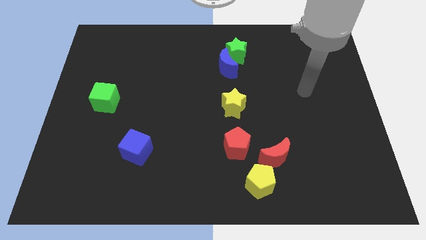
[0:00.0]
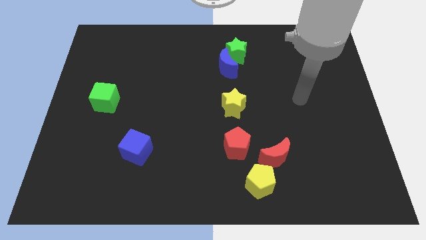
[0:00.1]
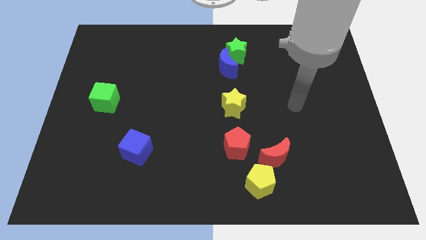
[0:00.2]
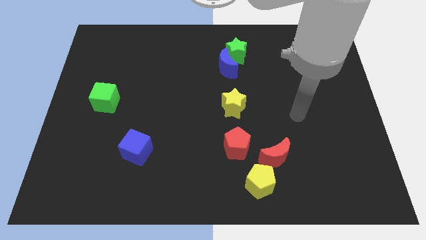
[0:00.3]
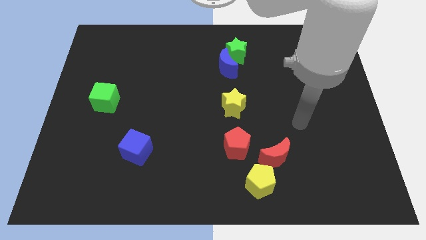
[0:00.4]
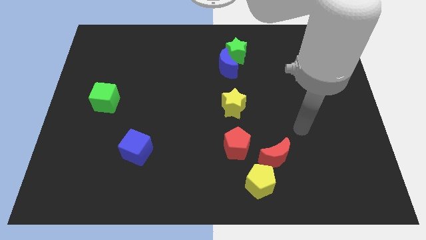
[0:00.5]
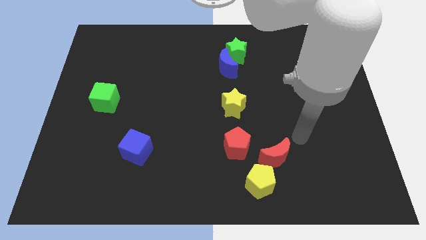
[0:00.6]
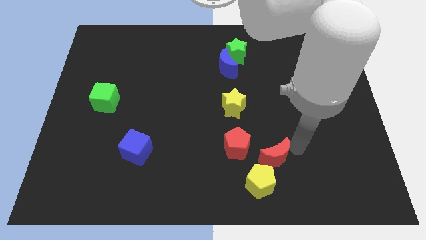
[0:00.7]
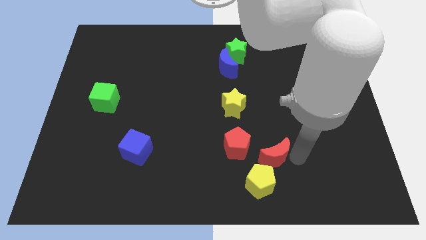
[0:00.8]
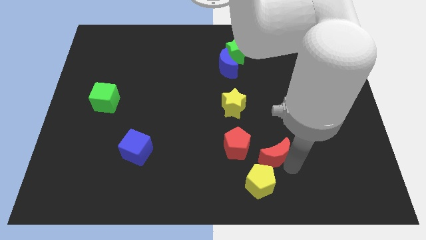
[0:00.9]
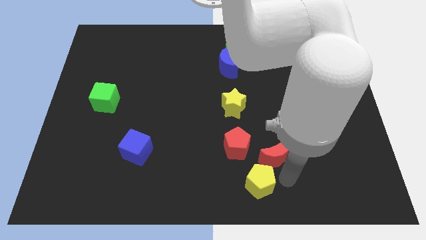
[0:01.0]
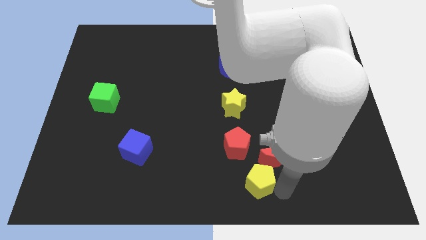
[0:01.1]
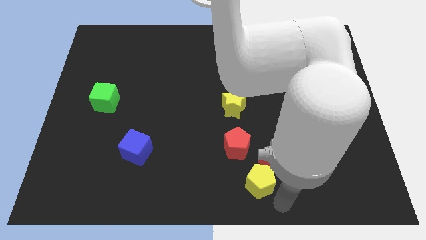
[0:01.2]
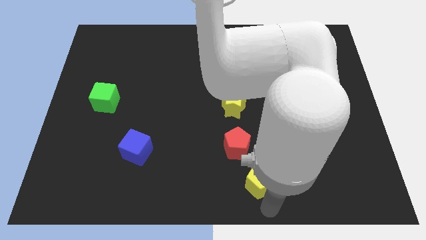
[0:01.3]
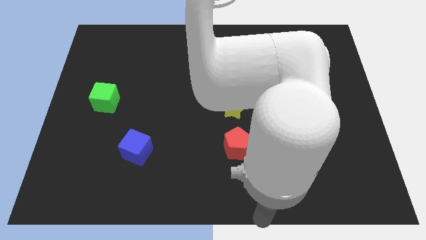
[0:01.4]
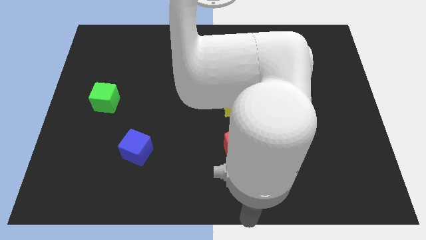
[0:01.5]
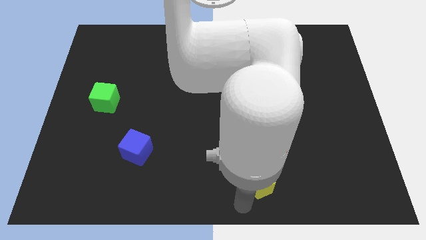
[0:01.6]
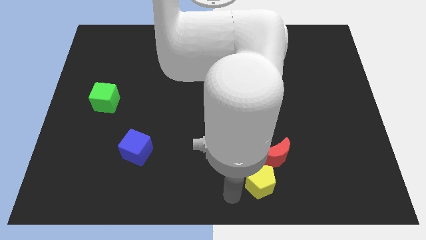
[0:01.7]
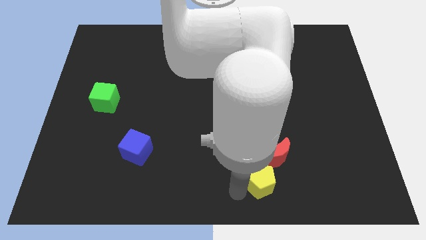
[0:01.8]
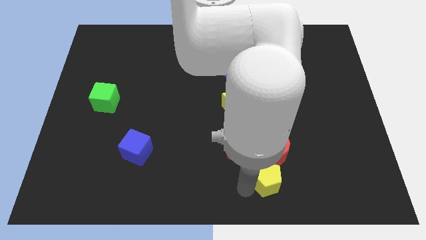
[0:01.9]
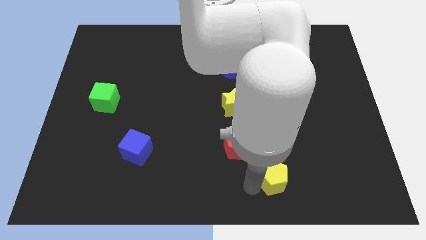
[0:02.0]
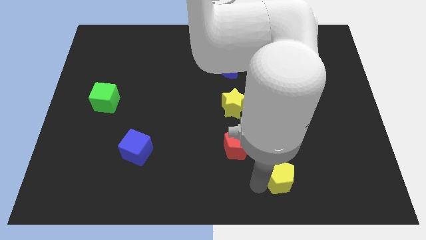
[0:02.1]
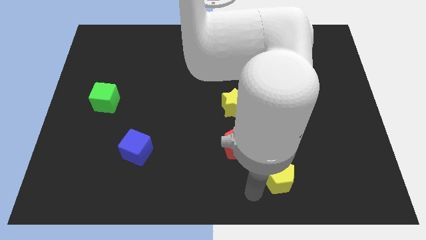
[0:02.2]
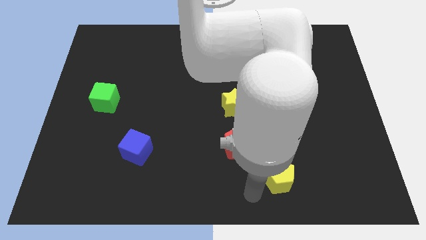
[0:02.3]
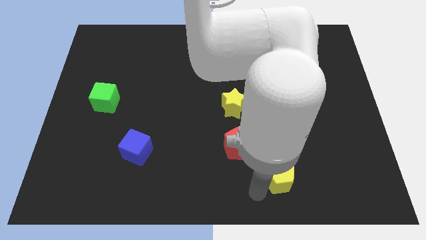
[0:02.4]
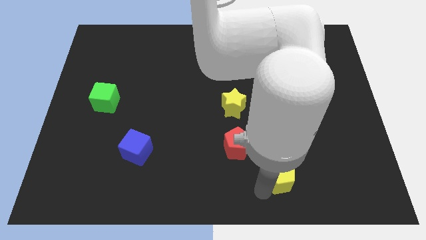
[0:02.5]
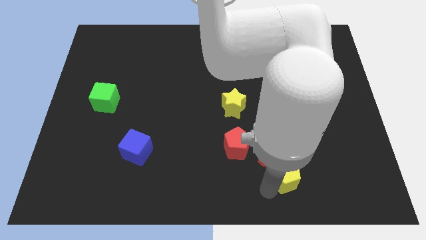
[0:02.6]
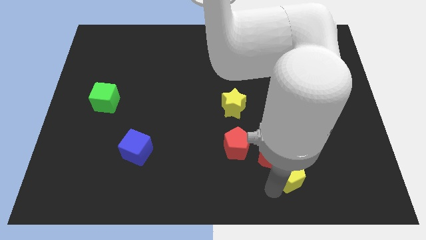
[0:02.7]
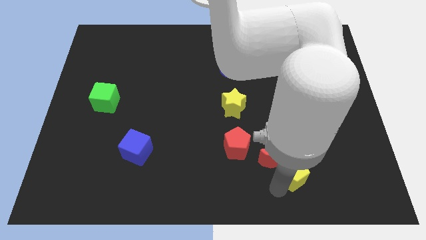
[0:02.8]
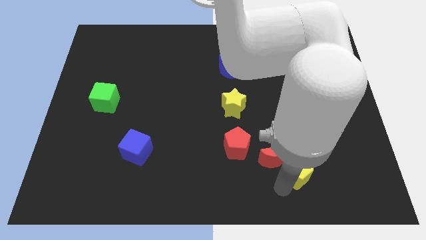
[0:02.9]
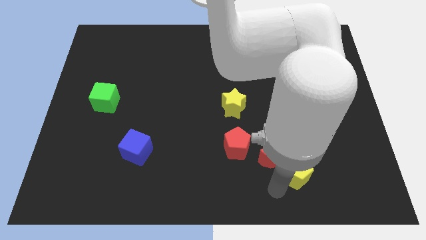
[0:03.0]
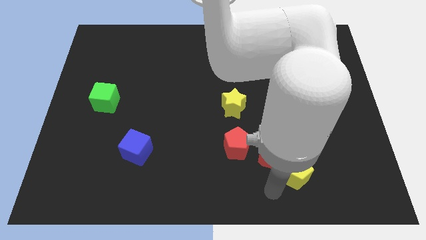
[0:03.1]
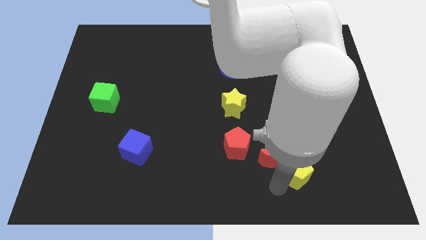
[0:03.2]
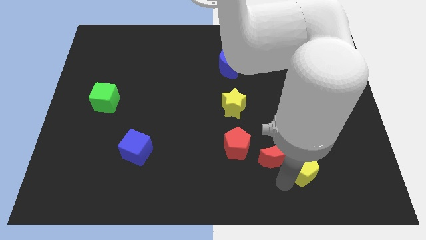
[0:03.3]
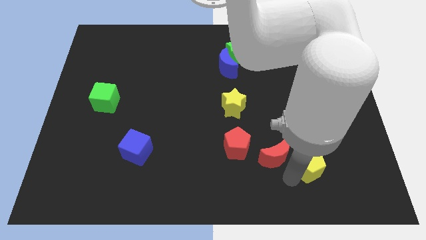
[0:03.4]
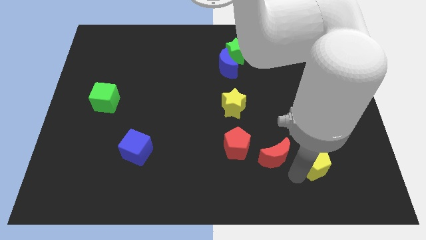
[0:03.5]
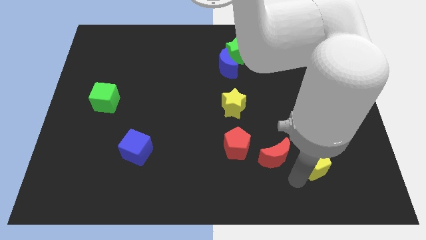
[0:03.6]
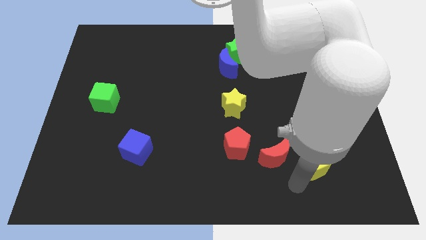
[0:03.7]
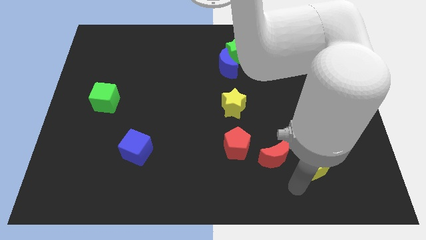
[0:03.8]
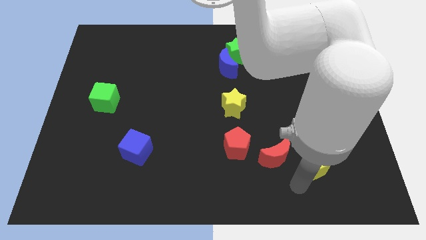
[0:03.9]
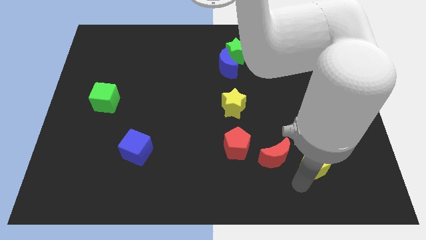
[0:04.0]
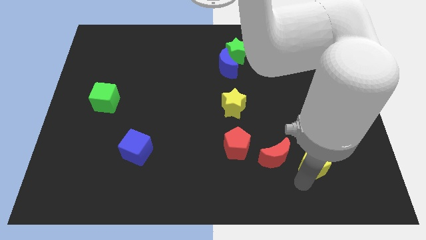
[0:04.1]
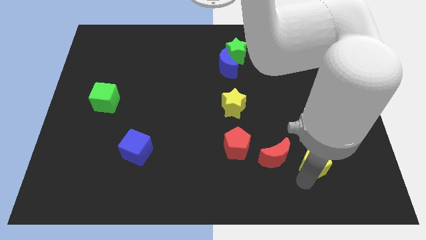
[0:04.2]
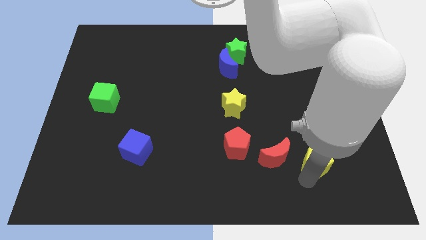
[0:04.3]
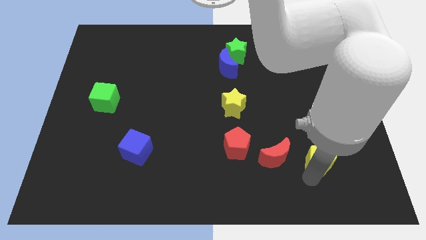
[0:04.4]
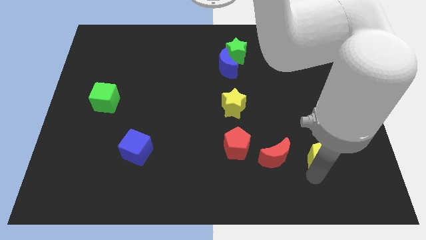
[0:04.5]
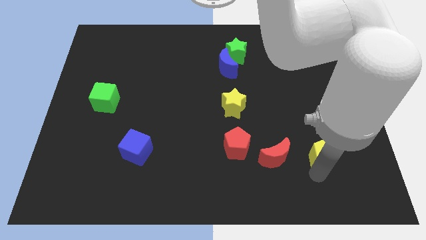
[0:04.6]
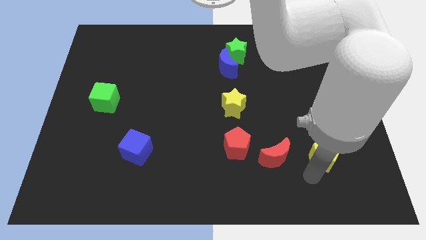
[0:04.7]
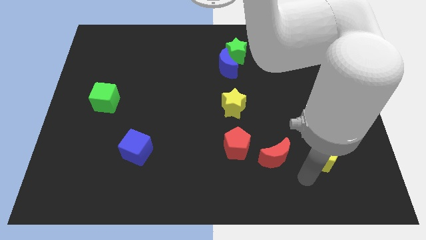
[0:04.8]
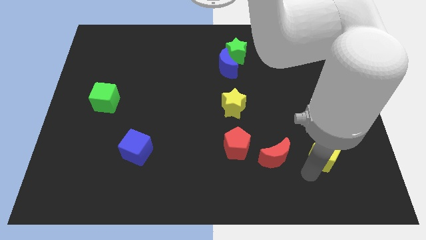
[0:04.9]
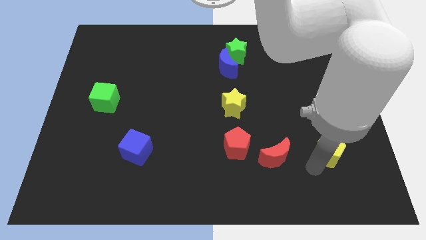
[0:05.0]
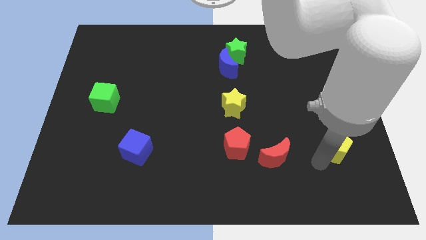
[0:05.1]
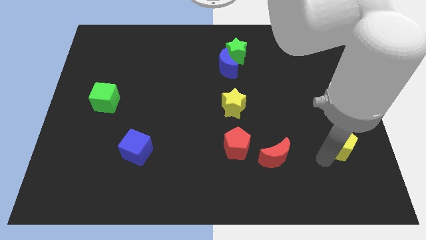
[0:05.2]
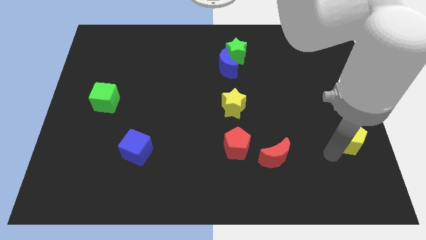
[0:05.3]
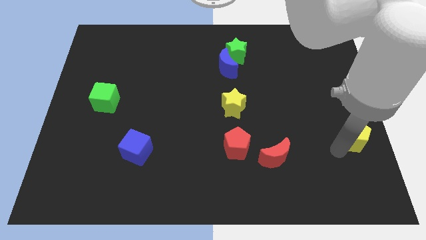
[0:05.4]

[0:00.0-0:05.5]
put the yellow pentagon to the right side
